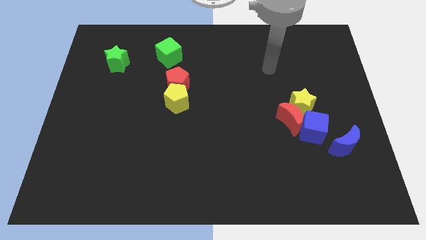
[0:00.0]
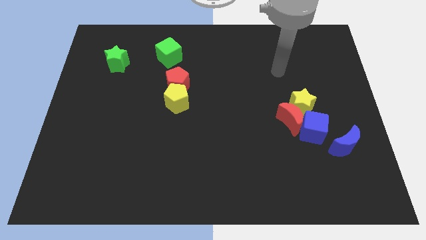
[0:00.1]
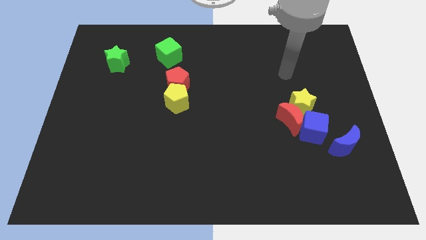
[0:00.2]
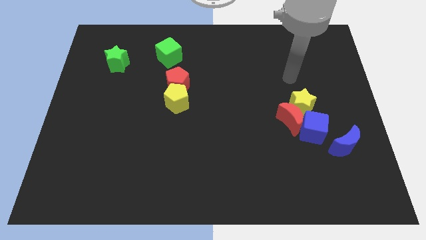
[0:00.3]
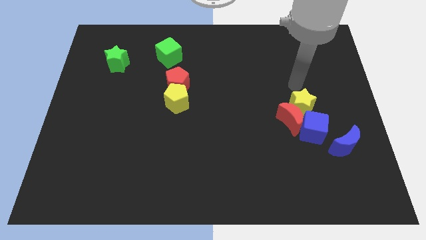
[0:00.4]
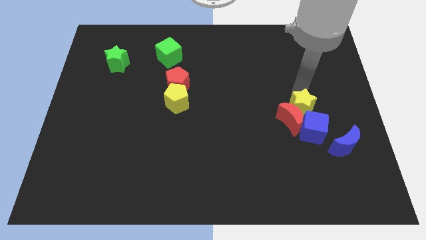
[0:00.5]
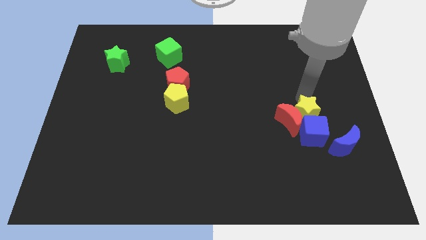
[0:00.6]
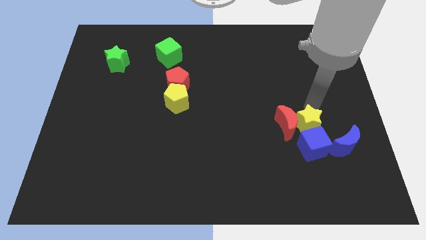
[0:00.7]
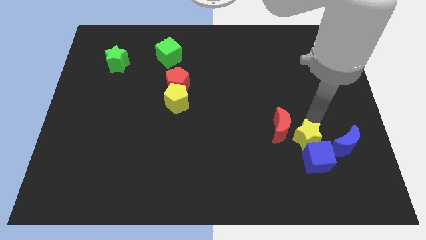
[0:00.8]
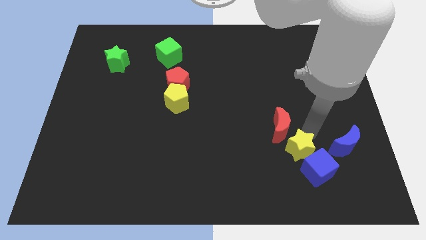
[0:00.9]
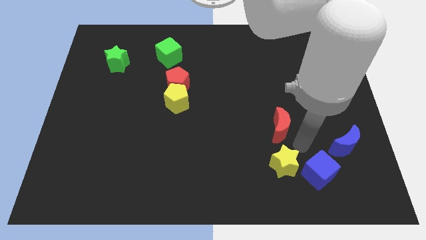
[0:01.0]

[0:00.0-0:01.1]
move the red moon away from the yellow star and blue cube

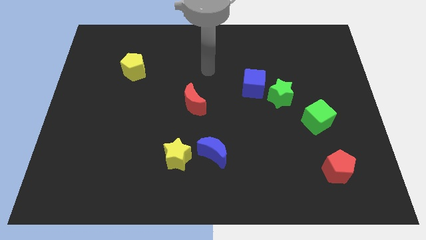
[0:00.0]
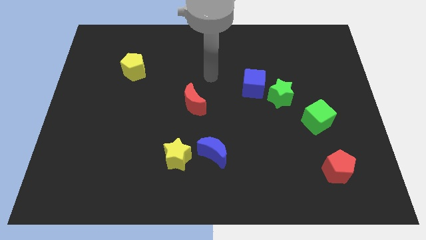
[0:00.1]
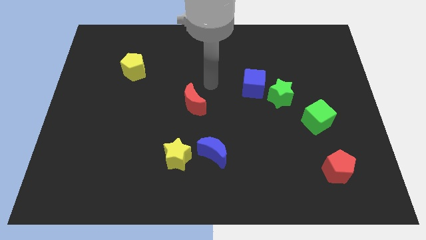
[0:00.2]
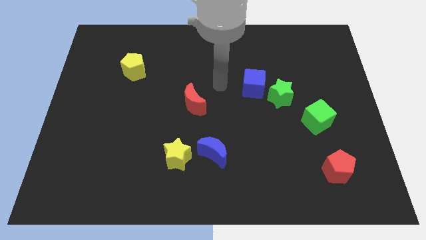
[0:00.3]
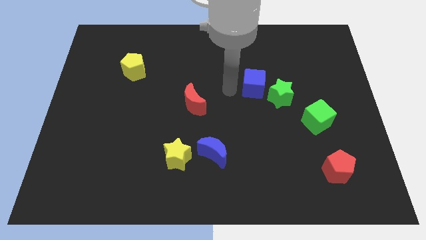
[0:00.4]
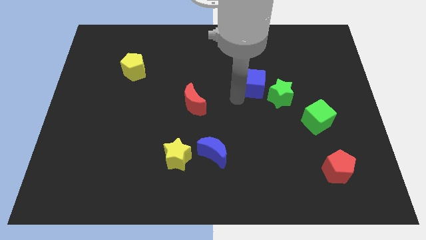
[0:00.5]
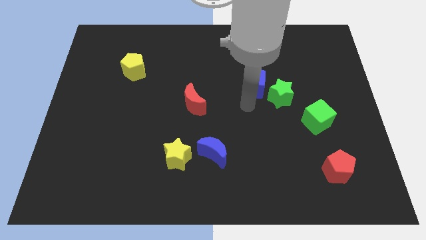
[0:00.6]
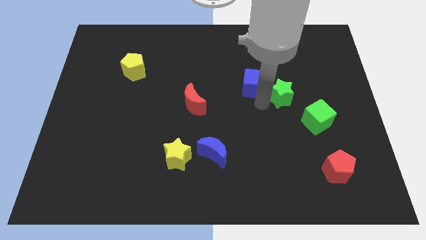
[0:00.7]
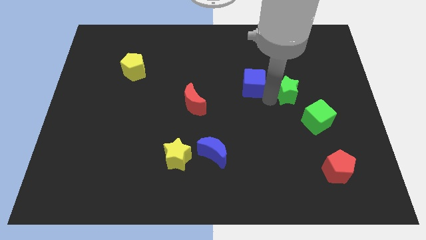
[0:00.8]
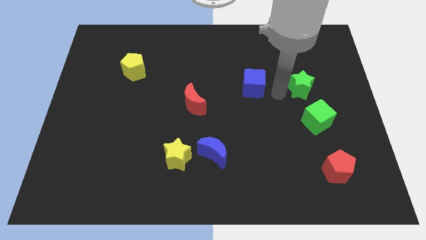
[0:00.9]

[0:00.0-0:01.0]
pull the blue cube apart from the green star

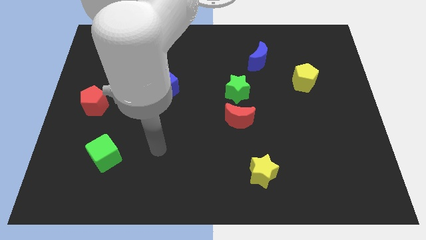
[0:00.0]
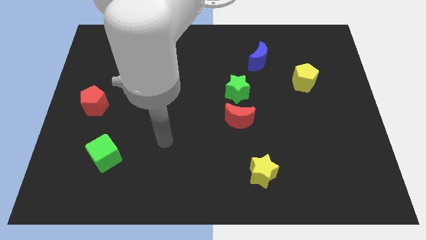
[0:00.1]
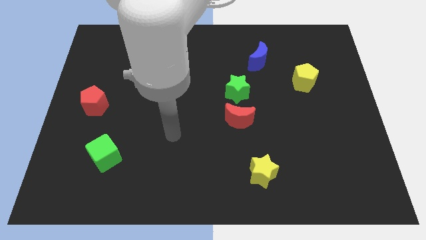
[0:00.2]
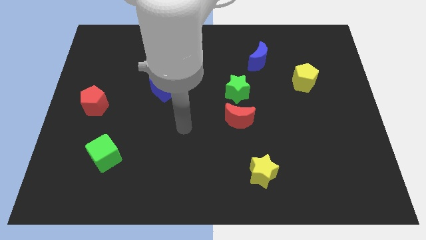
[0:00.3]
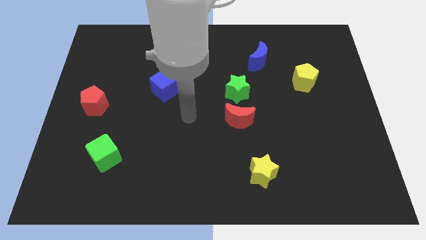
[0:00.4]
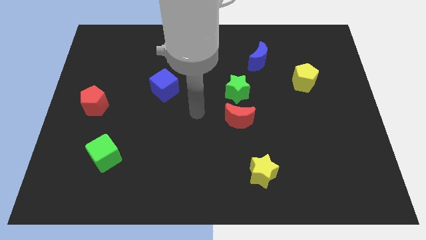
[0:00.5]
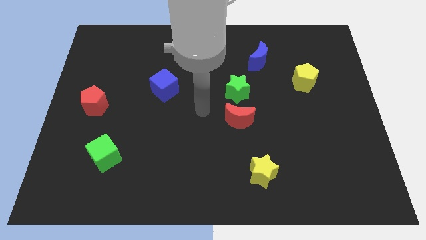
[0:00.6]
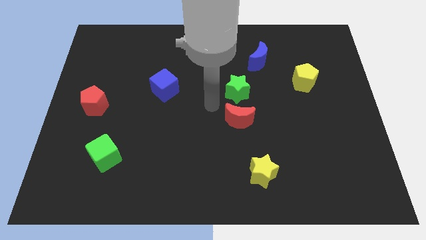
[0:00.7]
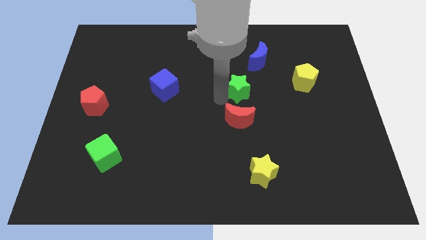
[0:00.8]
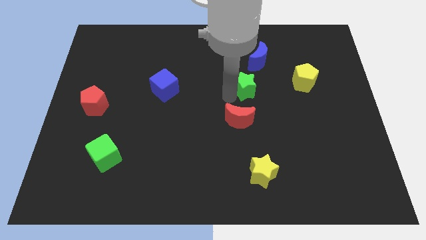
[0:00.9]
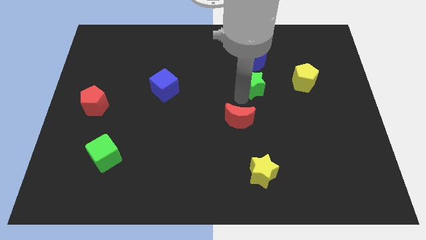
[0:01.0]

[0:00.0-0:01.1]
separate the red moon from the green star

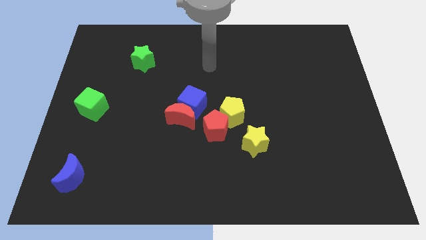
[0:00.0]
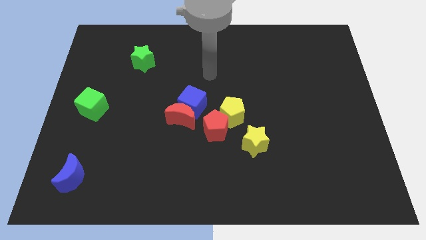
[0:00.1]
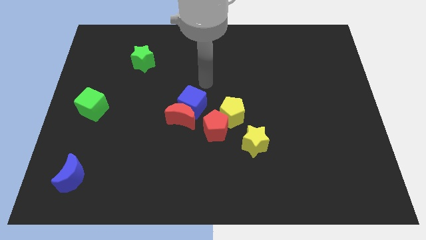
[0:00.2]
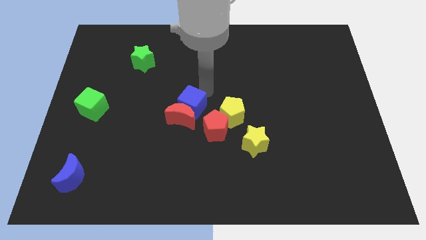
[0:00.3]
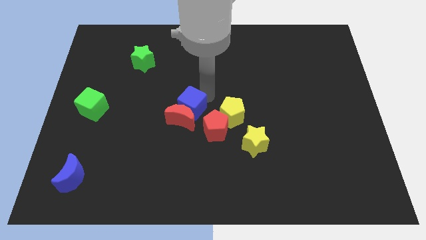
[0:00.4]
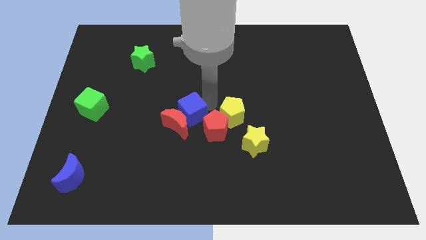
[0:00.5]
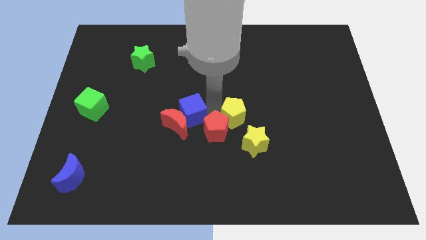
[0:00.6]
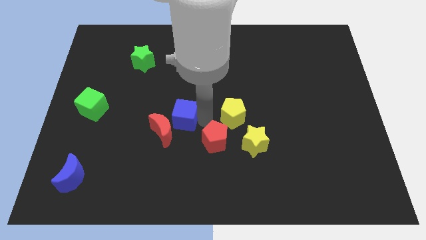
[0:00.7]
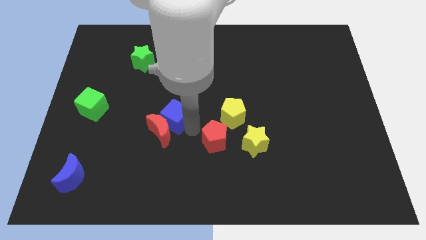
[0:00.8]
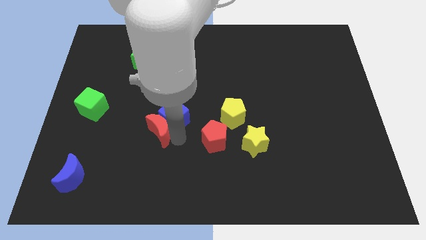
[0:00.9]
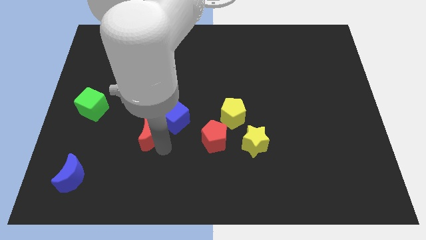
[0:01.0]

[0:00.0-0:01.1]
move the red moon away from the blue cube and red pentagon

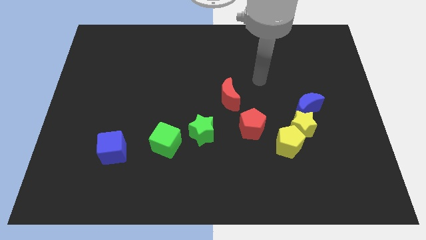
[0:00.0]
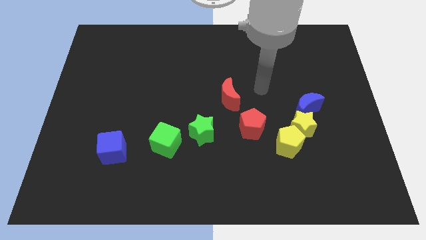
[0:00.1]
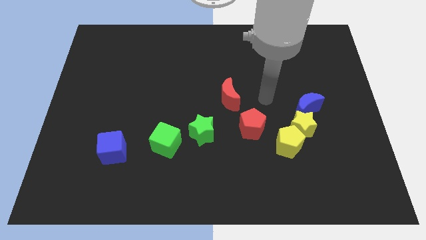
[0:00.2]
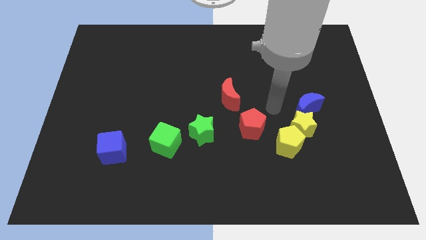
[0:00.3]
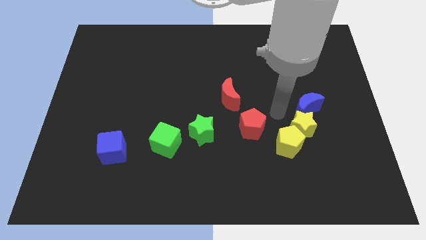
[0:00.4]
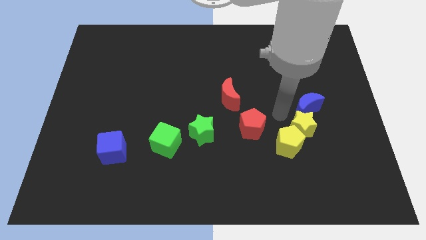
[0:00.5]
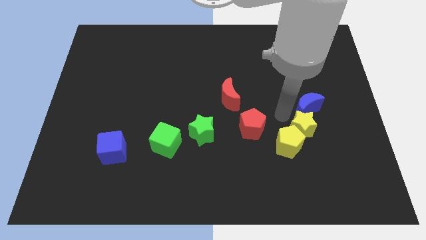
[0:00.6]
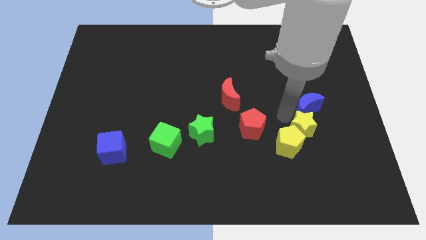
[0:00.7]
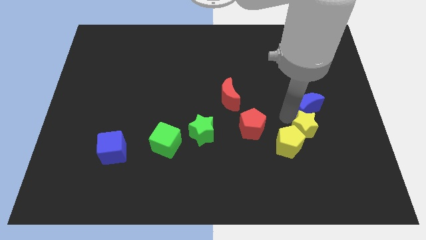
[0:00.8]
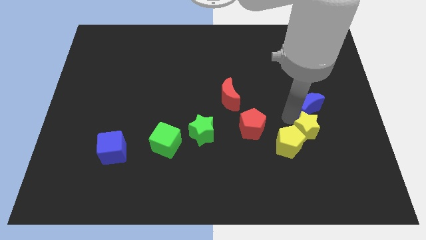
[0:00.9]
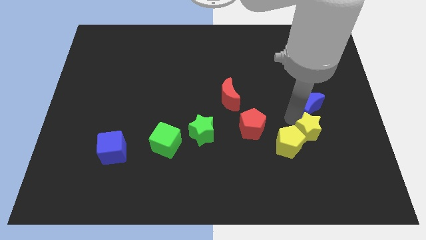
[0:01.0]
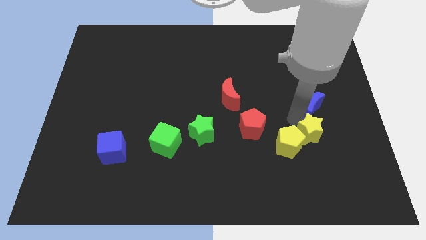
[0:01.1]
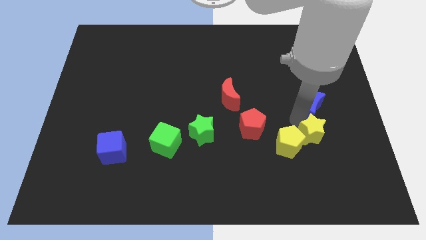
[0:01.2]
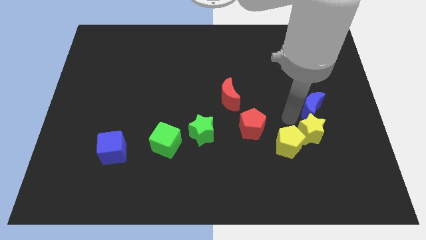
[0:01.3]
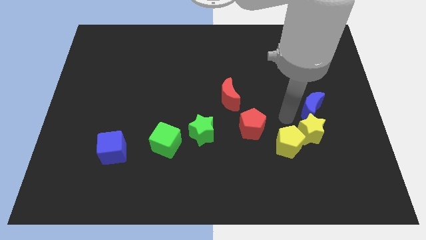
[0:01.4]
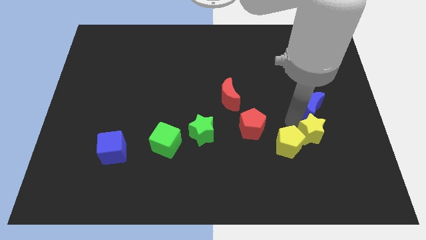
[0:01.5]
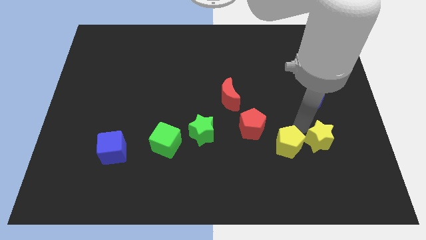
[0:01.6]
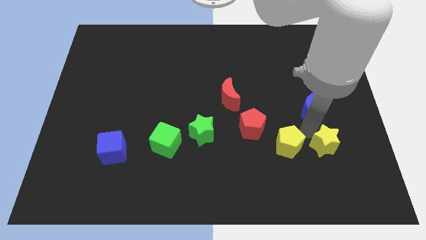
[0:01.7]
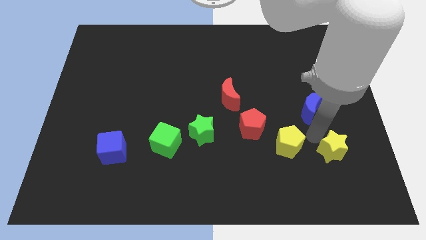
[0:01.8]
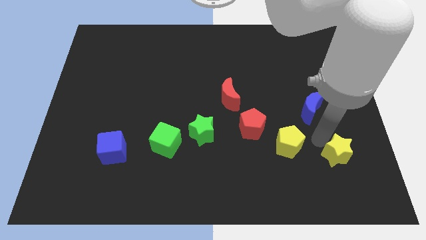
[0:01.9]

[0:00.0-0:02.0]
pull the yellow star apart from the yellow pentagon and blue moon

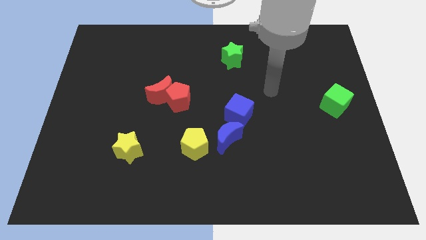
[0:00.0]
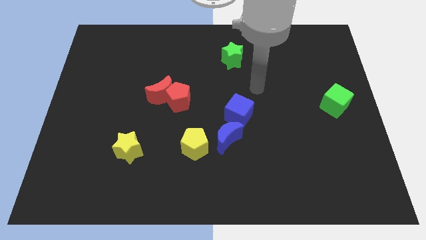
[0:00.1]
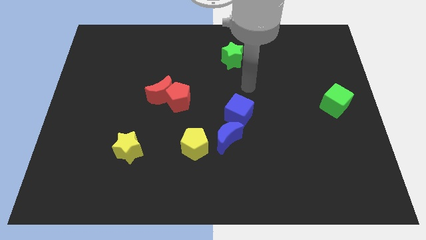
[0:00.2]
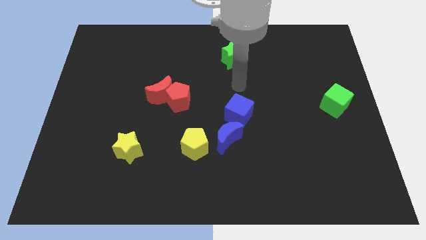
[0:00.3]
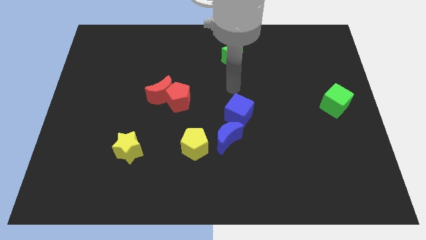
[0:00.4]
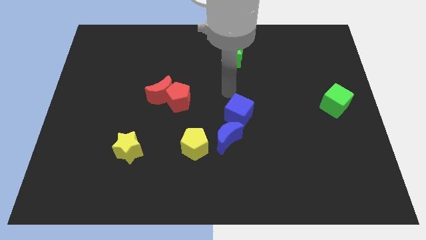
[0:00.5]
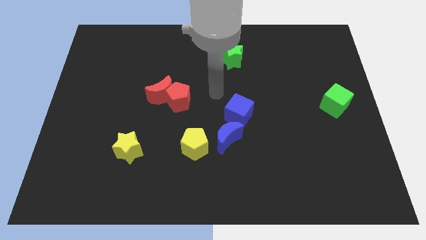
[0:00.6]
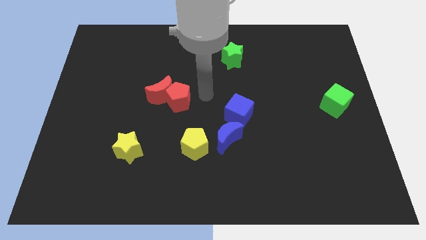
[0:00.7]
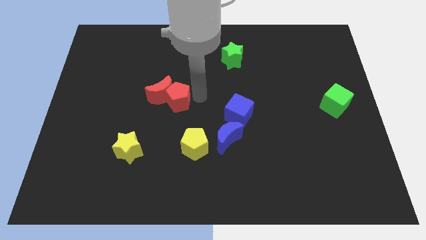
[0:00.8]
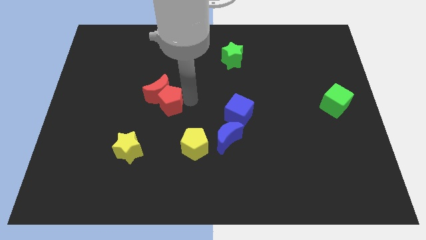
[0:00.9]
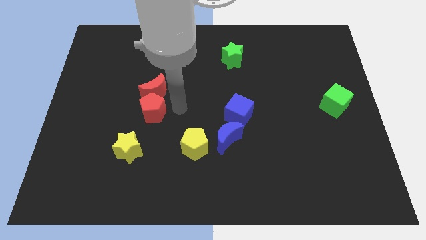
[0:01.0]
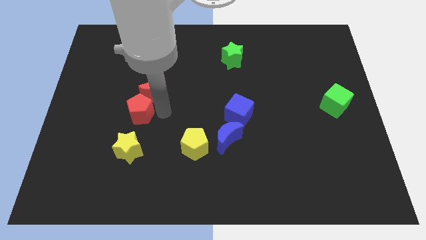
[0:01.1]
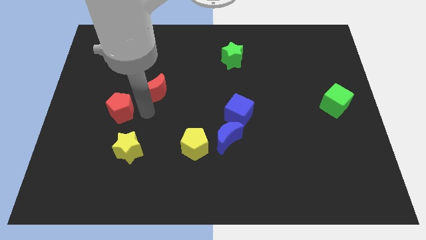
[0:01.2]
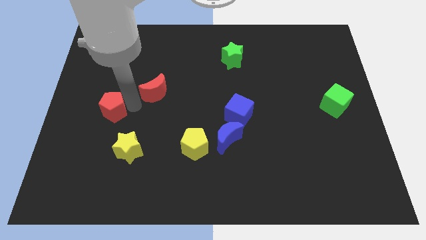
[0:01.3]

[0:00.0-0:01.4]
separate the red moon from the red pentagon

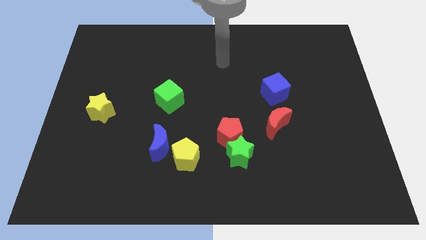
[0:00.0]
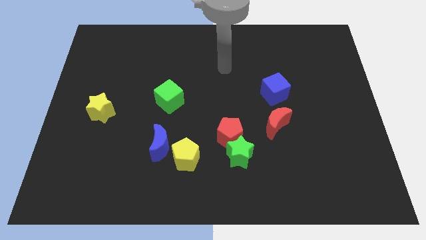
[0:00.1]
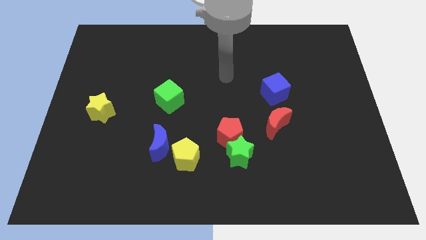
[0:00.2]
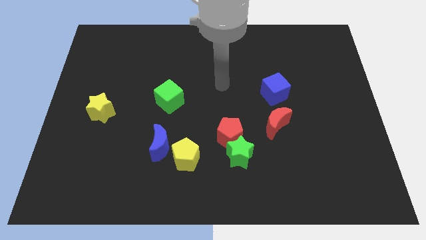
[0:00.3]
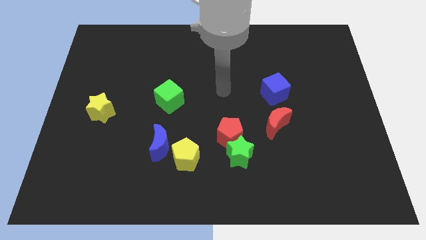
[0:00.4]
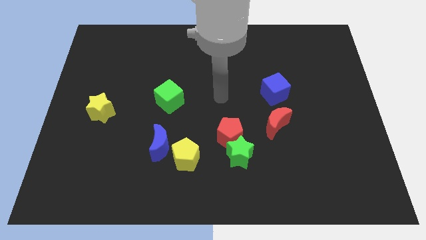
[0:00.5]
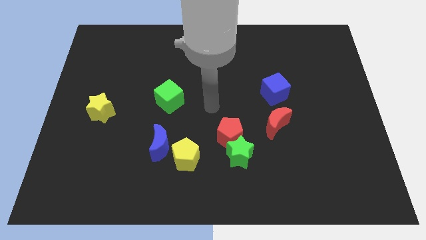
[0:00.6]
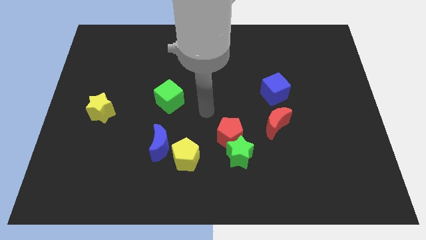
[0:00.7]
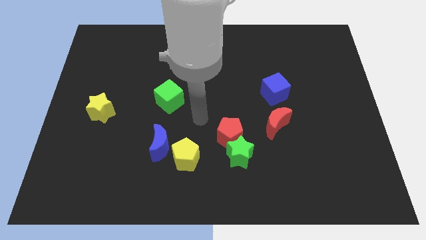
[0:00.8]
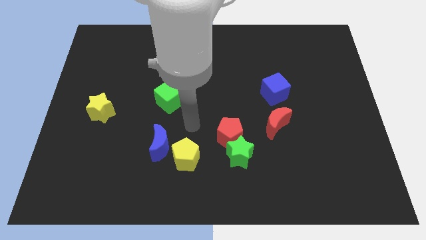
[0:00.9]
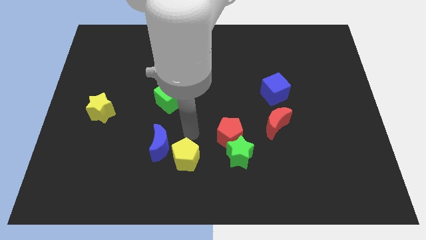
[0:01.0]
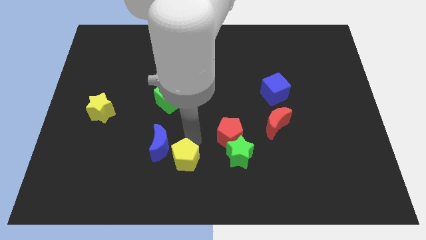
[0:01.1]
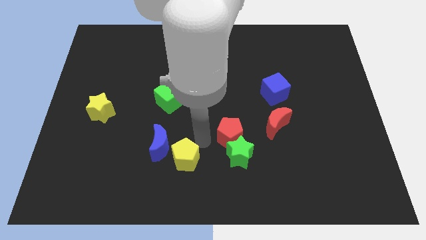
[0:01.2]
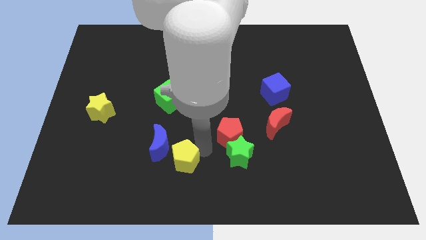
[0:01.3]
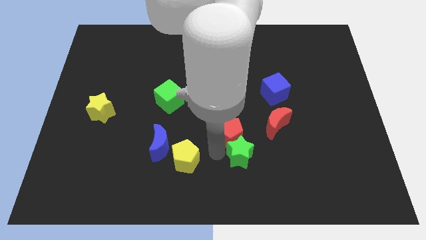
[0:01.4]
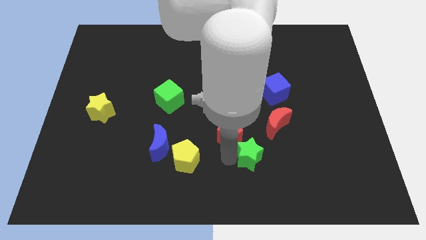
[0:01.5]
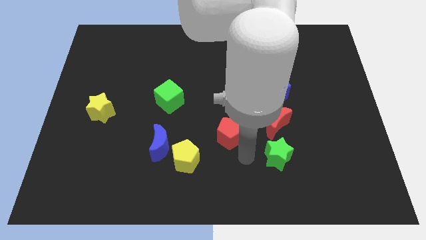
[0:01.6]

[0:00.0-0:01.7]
move the red pentagon away from the green star
